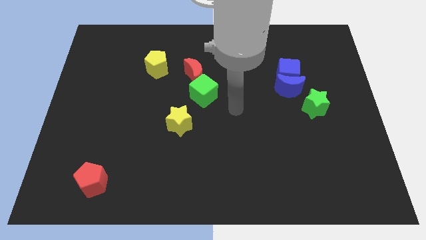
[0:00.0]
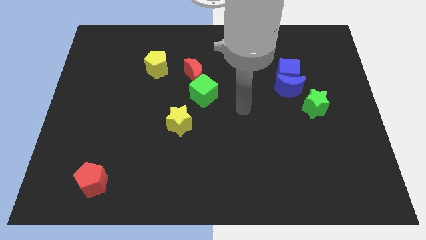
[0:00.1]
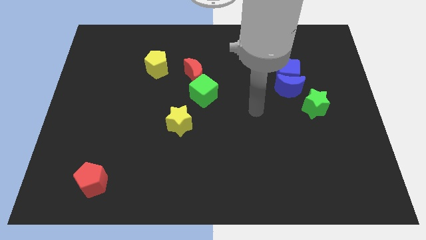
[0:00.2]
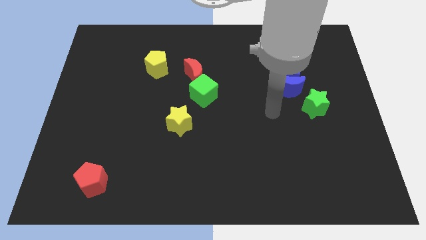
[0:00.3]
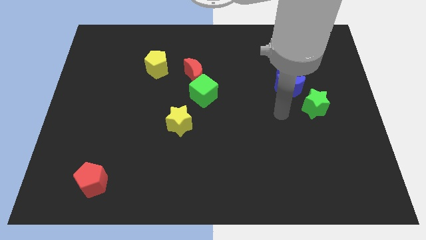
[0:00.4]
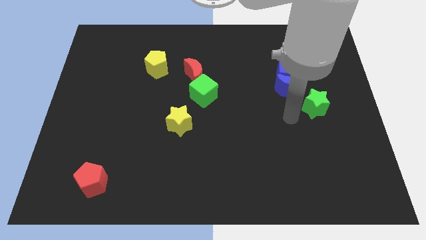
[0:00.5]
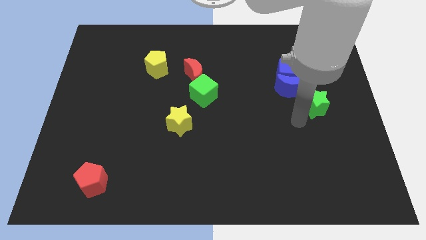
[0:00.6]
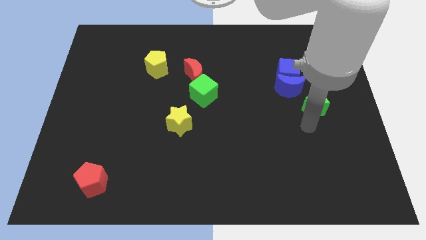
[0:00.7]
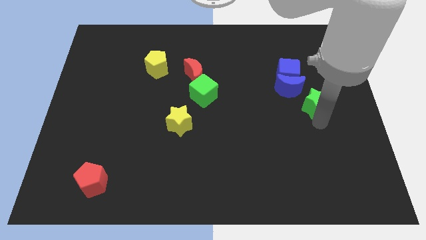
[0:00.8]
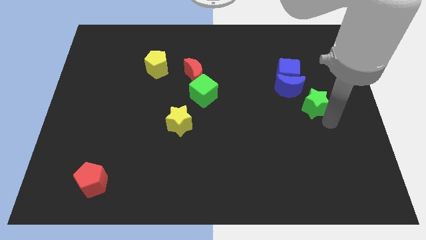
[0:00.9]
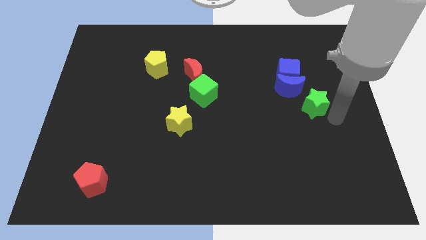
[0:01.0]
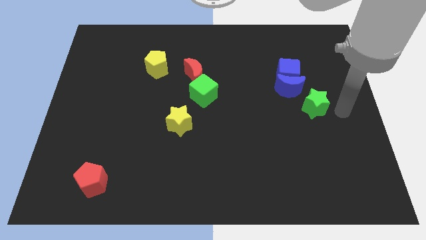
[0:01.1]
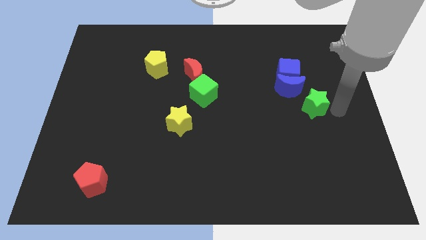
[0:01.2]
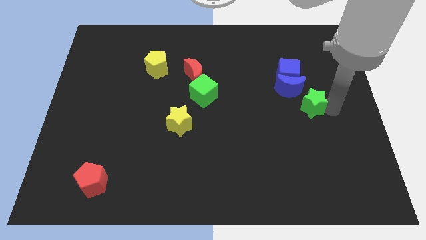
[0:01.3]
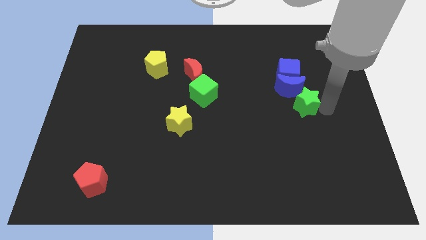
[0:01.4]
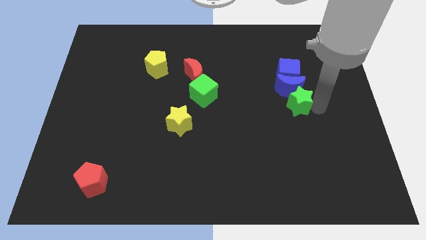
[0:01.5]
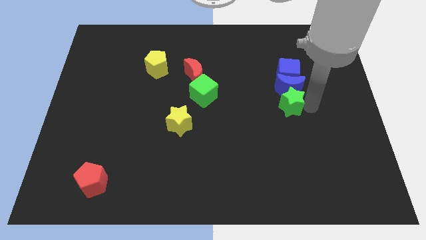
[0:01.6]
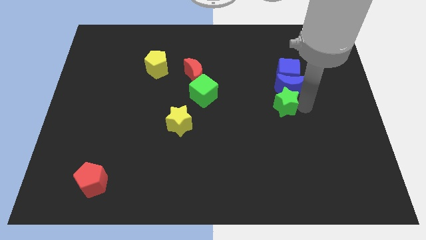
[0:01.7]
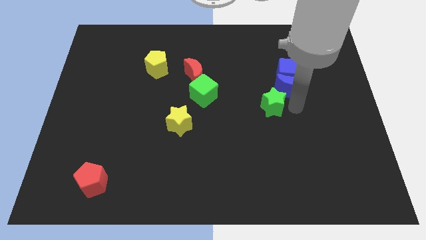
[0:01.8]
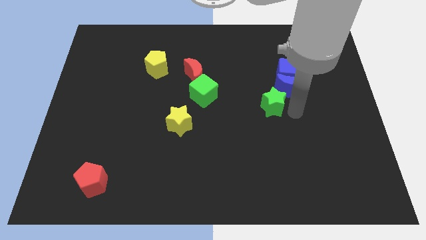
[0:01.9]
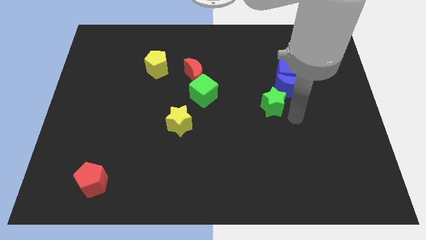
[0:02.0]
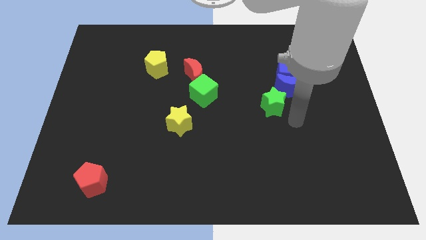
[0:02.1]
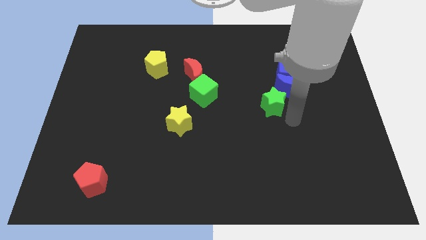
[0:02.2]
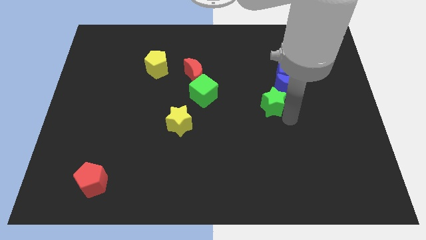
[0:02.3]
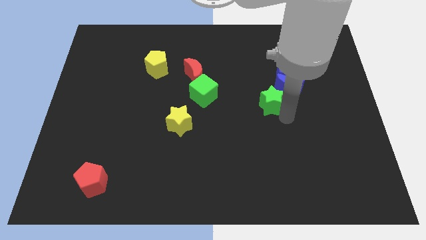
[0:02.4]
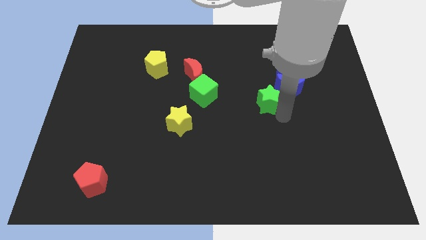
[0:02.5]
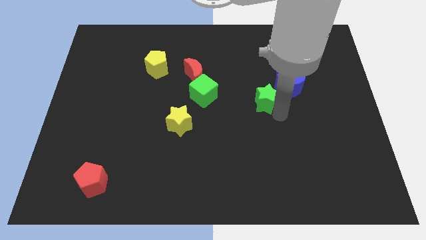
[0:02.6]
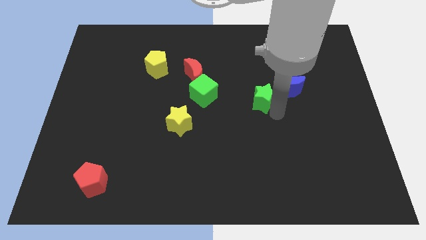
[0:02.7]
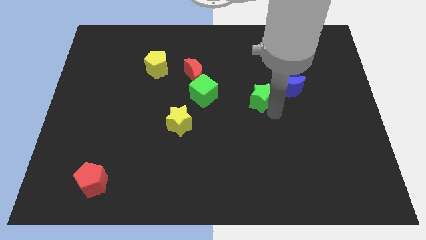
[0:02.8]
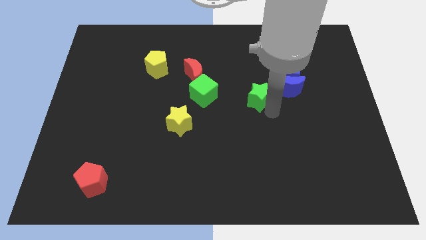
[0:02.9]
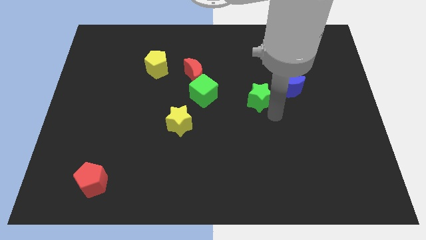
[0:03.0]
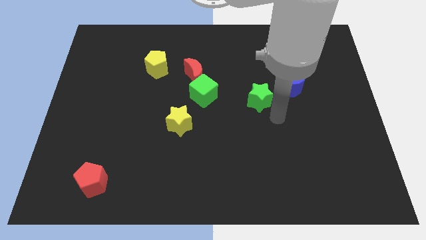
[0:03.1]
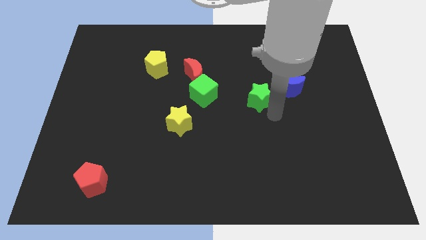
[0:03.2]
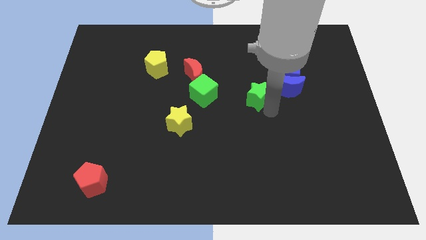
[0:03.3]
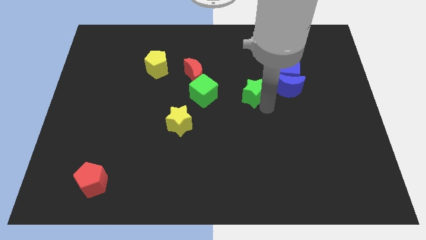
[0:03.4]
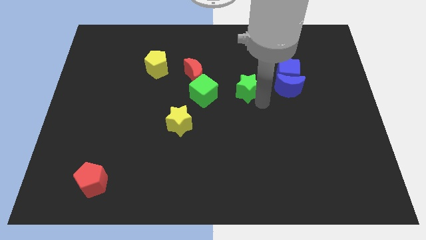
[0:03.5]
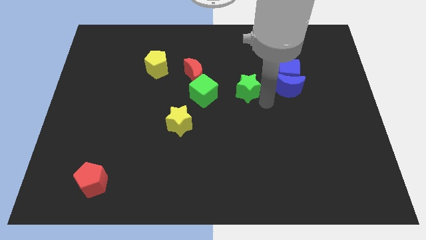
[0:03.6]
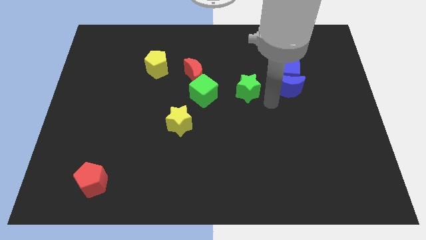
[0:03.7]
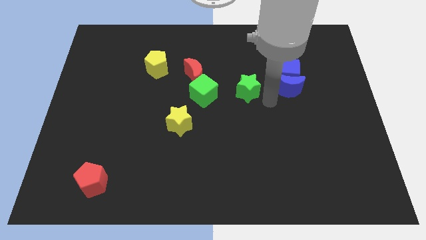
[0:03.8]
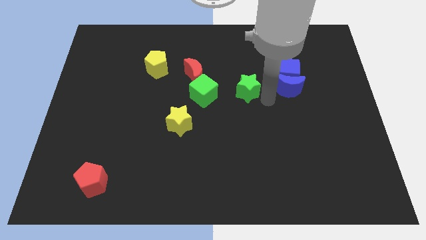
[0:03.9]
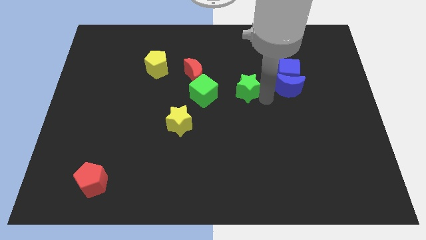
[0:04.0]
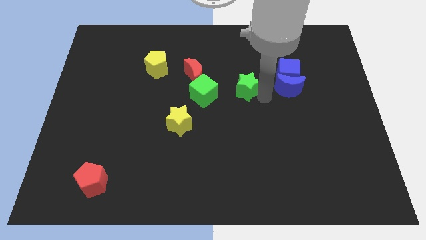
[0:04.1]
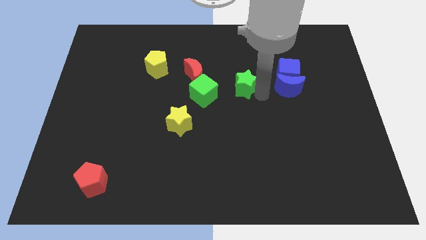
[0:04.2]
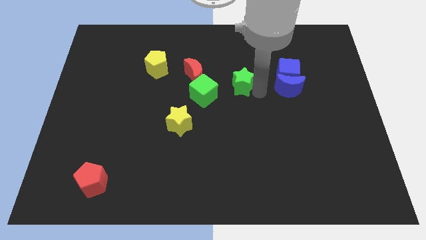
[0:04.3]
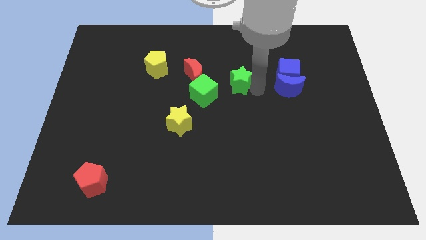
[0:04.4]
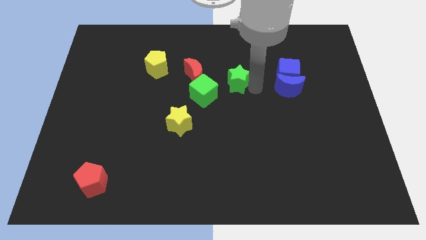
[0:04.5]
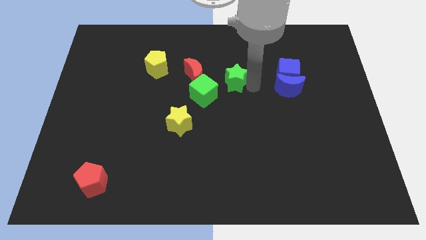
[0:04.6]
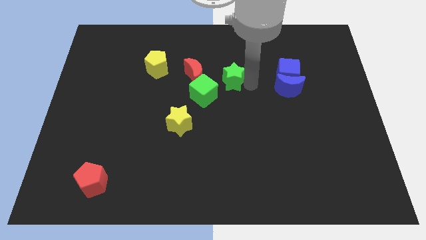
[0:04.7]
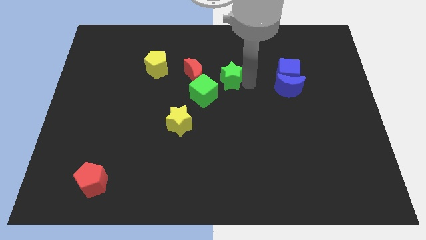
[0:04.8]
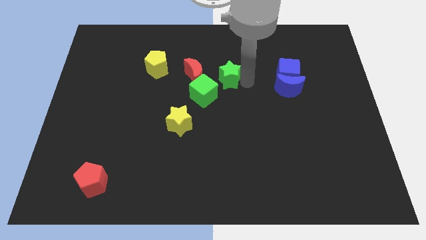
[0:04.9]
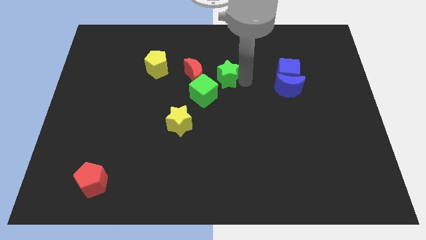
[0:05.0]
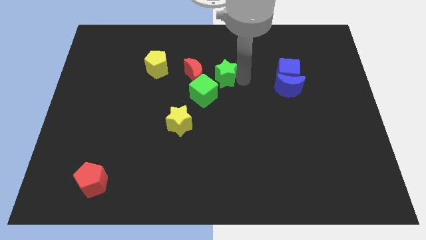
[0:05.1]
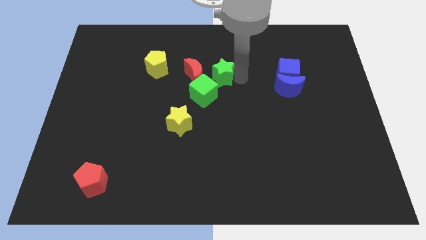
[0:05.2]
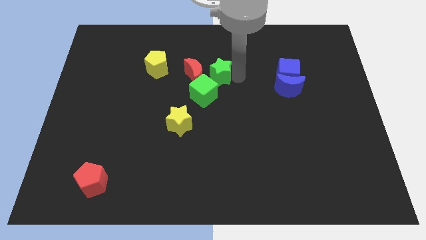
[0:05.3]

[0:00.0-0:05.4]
push the green star next to the red moon

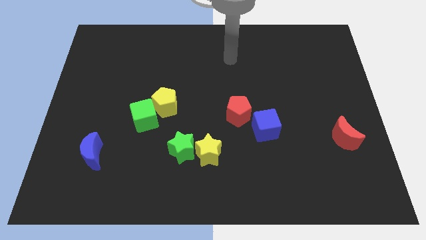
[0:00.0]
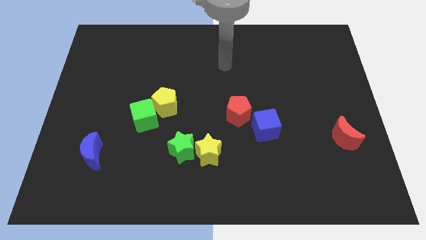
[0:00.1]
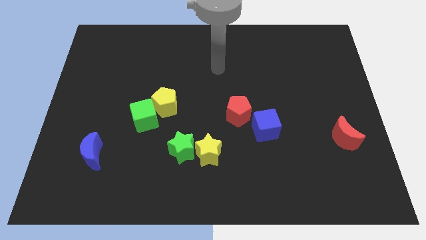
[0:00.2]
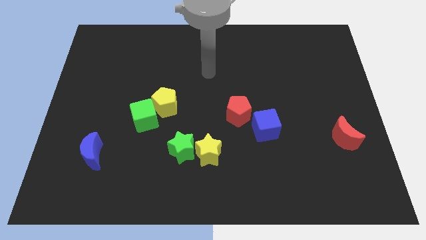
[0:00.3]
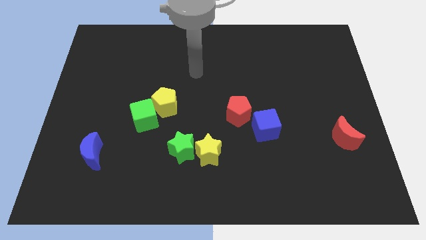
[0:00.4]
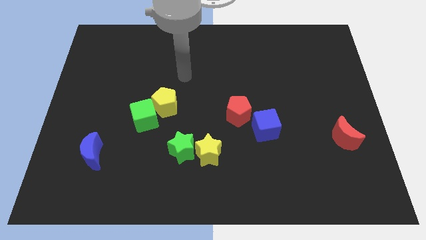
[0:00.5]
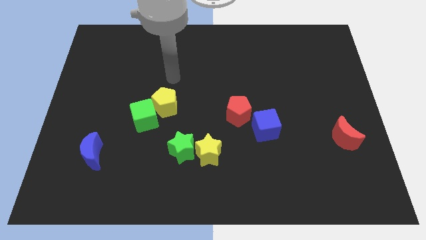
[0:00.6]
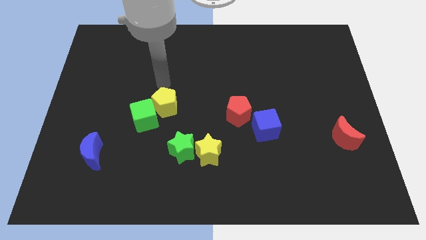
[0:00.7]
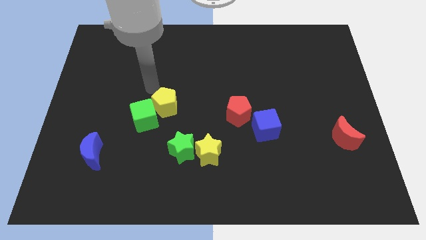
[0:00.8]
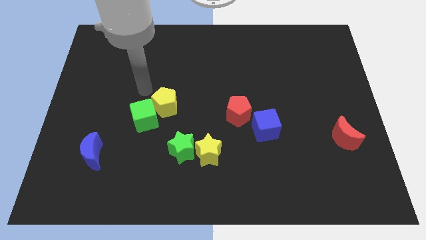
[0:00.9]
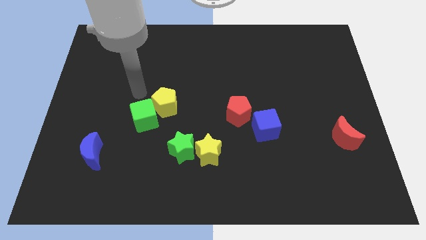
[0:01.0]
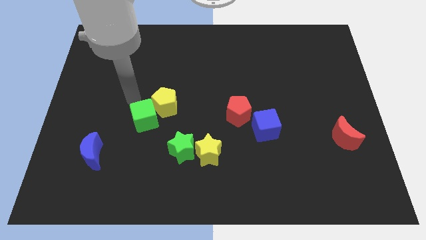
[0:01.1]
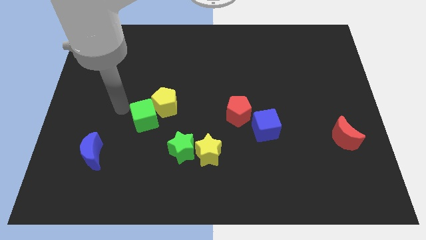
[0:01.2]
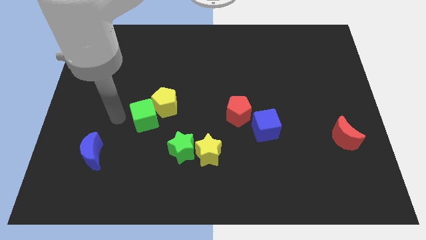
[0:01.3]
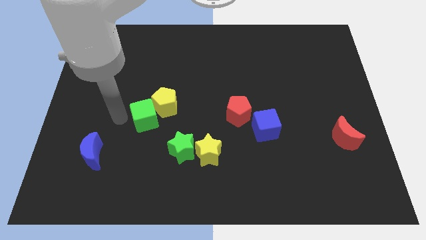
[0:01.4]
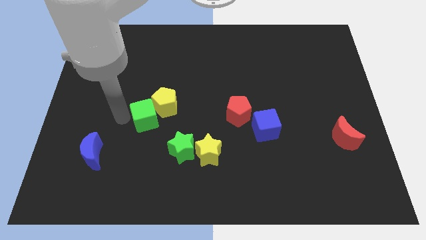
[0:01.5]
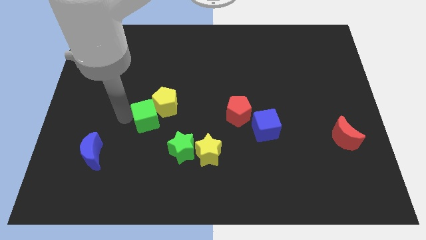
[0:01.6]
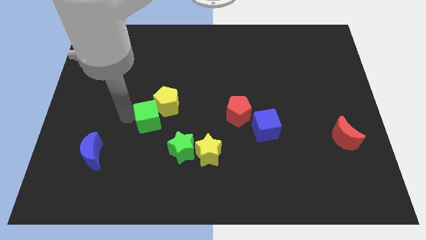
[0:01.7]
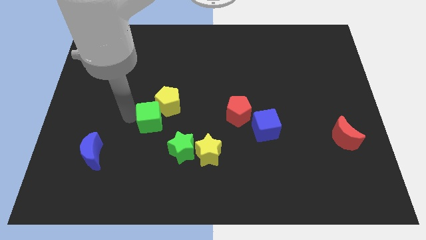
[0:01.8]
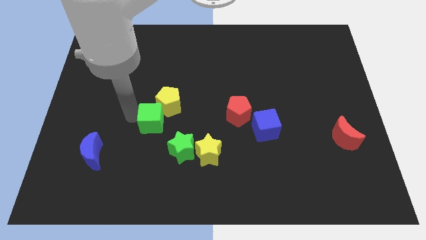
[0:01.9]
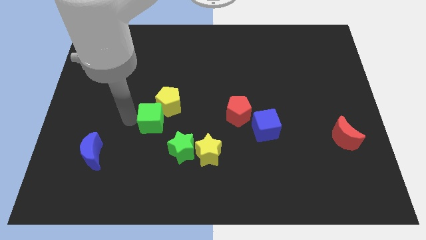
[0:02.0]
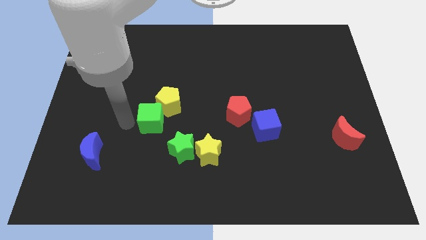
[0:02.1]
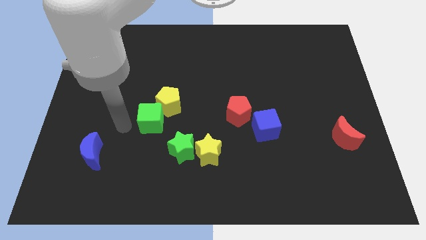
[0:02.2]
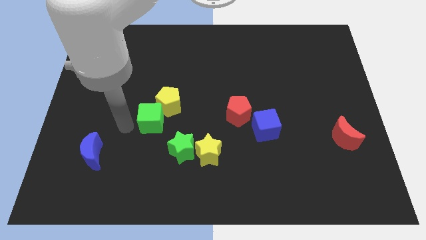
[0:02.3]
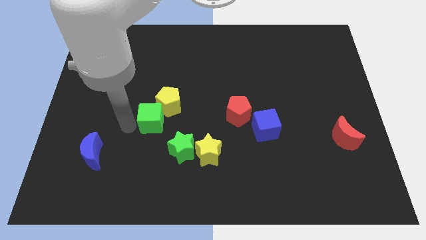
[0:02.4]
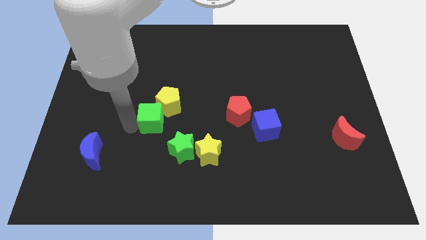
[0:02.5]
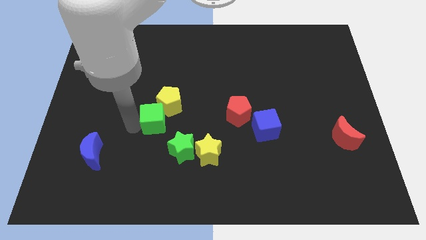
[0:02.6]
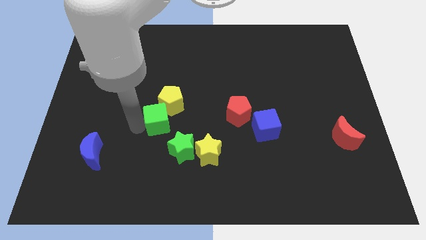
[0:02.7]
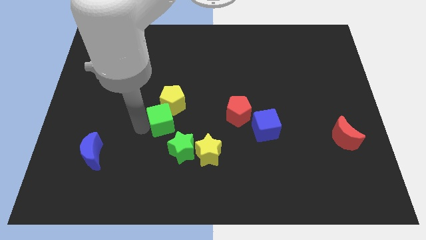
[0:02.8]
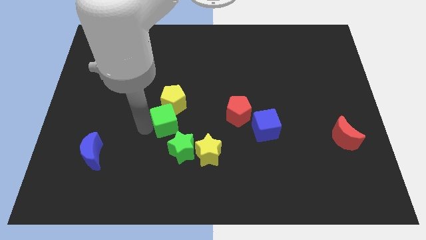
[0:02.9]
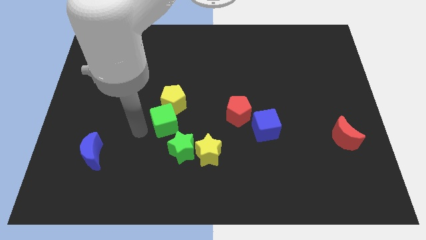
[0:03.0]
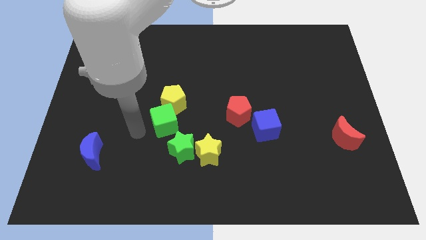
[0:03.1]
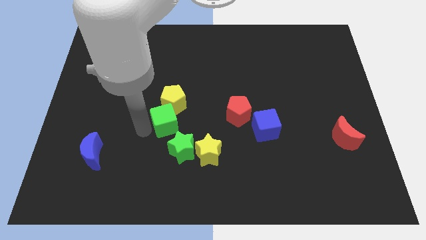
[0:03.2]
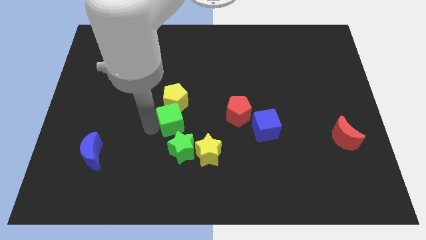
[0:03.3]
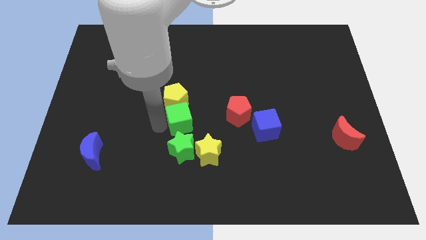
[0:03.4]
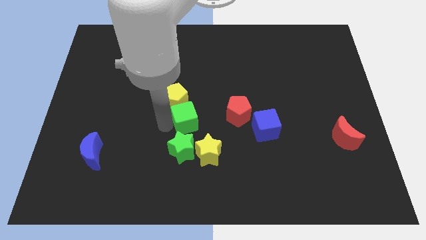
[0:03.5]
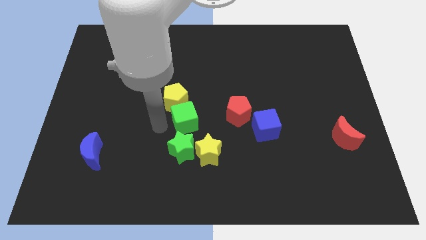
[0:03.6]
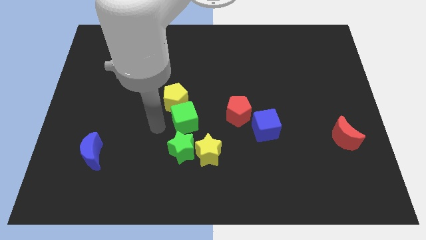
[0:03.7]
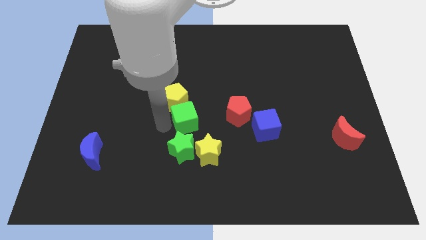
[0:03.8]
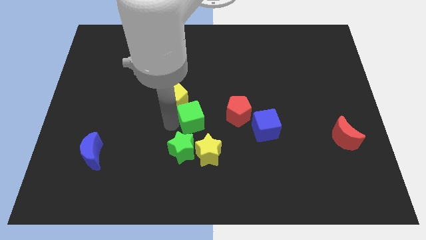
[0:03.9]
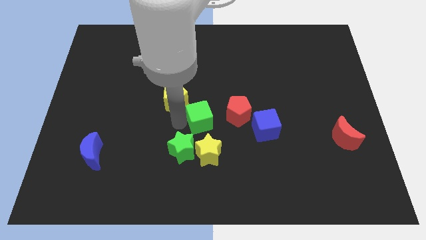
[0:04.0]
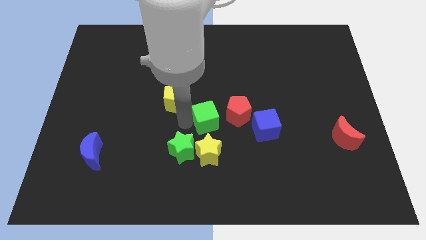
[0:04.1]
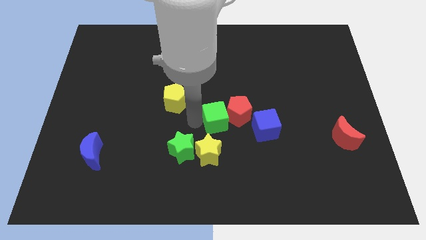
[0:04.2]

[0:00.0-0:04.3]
move the green cube towards the red pentagon
